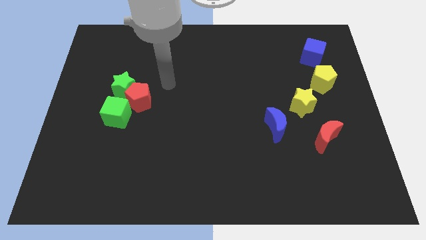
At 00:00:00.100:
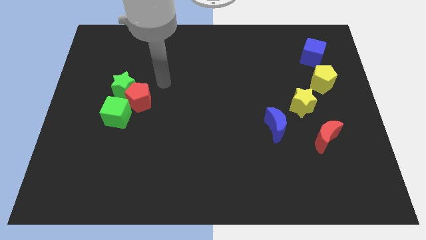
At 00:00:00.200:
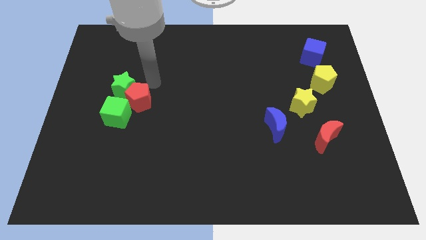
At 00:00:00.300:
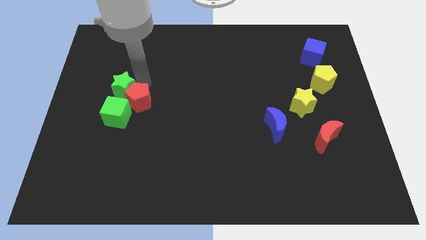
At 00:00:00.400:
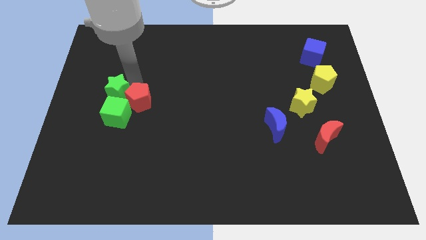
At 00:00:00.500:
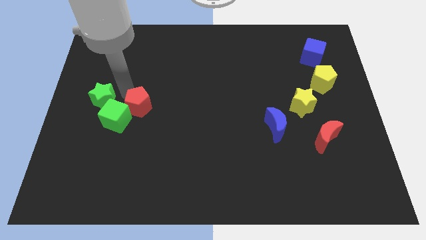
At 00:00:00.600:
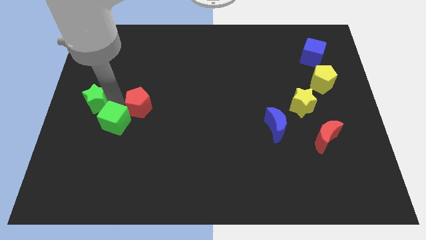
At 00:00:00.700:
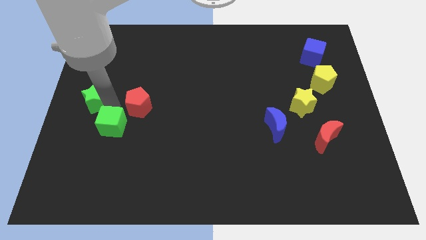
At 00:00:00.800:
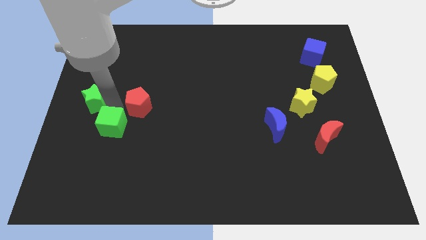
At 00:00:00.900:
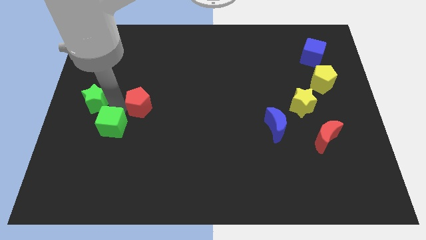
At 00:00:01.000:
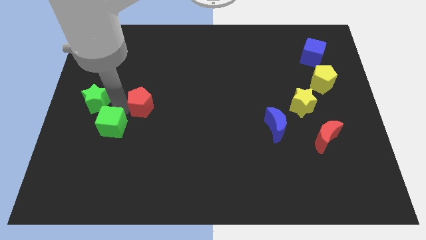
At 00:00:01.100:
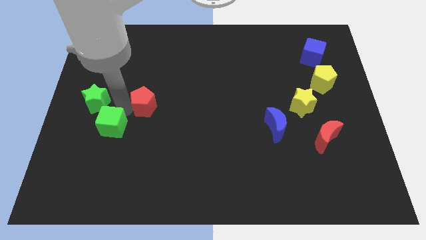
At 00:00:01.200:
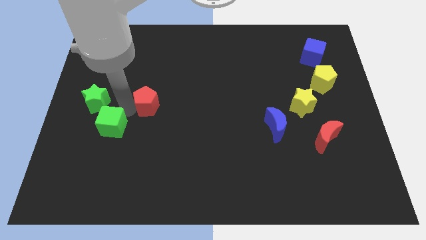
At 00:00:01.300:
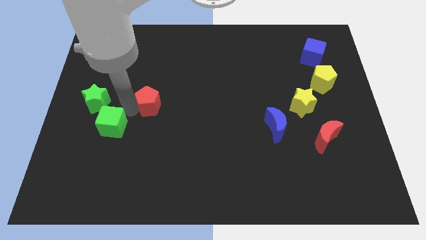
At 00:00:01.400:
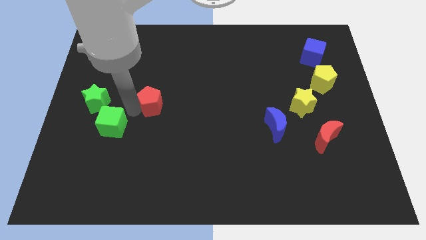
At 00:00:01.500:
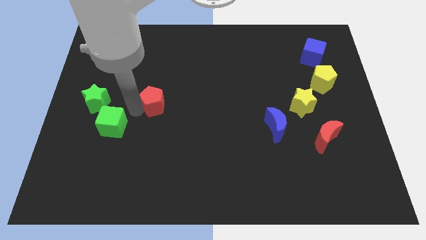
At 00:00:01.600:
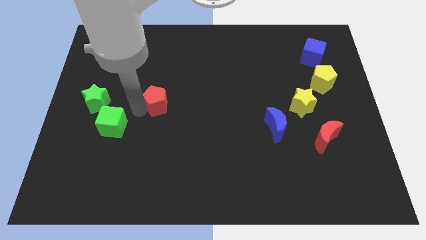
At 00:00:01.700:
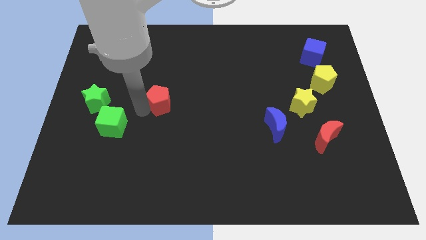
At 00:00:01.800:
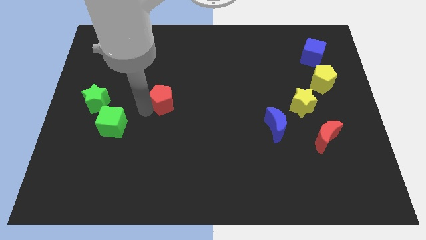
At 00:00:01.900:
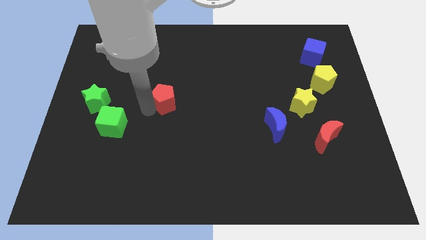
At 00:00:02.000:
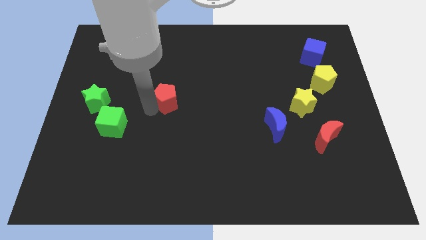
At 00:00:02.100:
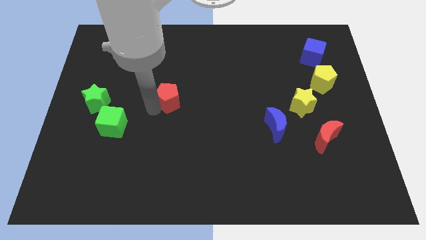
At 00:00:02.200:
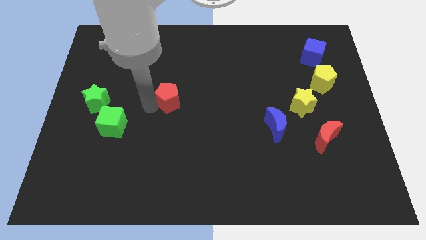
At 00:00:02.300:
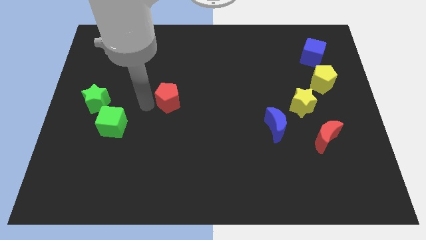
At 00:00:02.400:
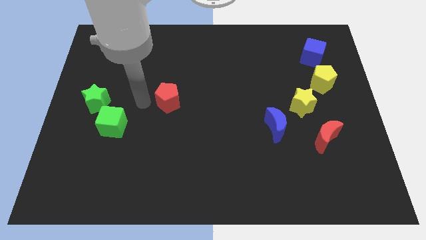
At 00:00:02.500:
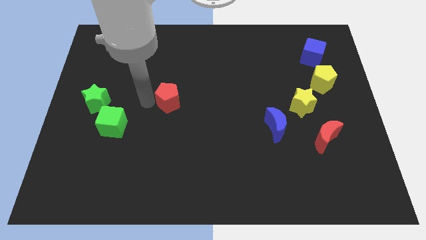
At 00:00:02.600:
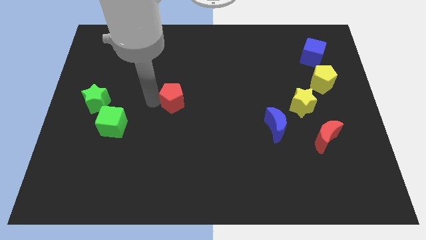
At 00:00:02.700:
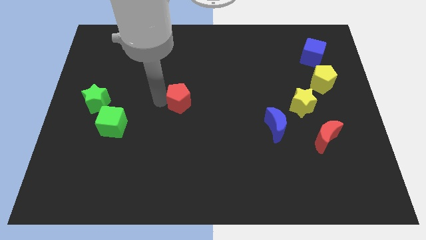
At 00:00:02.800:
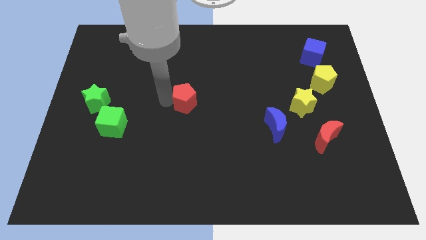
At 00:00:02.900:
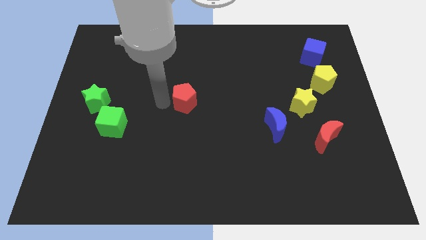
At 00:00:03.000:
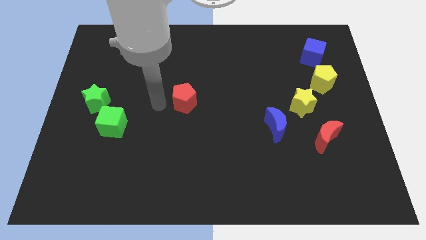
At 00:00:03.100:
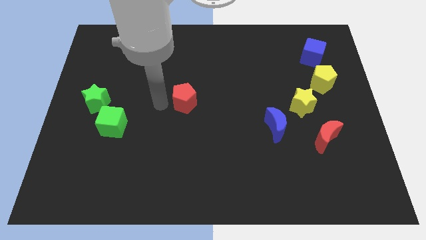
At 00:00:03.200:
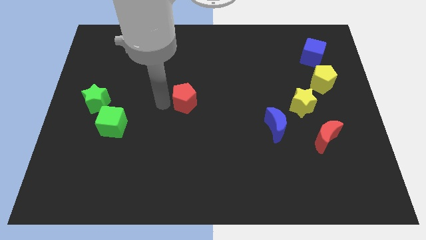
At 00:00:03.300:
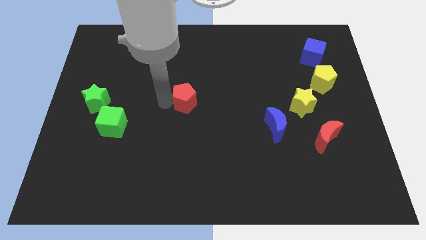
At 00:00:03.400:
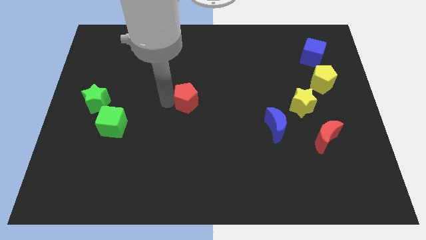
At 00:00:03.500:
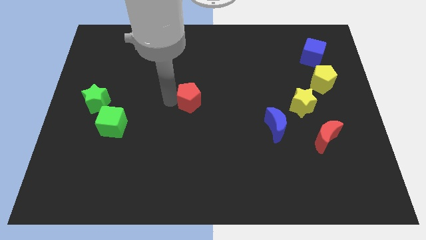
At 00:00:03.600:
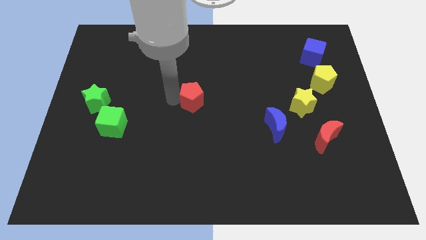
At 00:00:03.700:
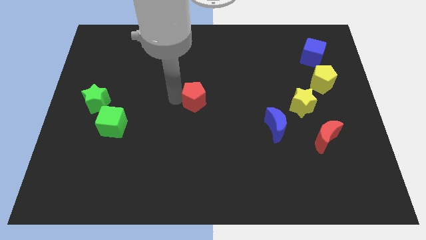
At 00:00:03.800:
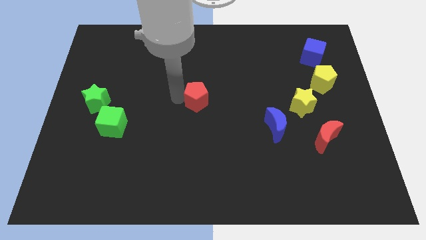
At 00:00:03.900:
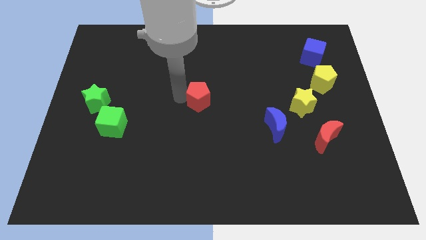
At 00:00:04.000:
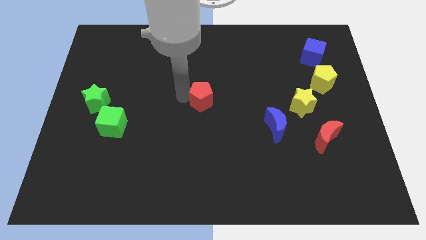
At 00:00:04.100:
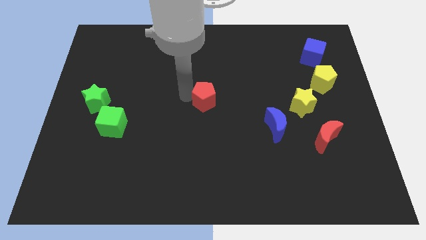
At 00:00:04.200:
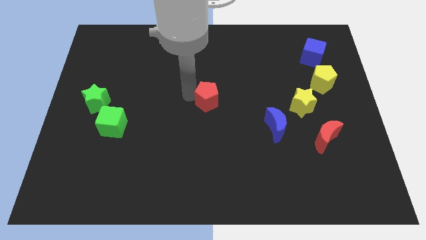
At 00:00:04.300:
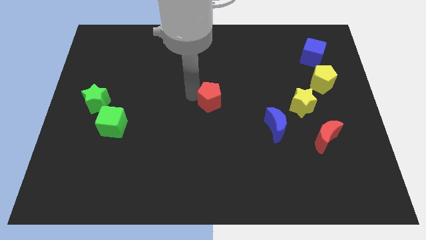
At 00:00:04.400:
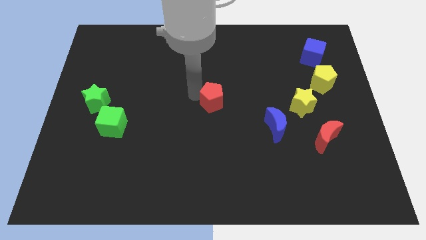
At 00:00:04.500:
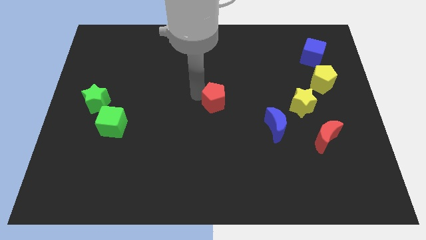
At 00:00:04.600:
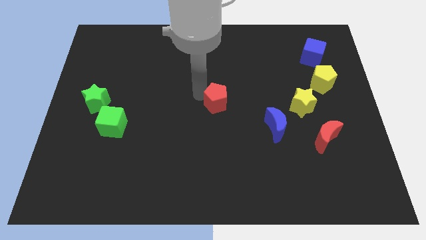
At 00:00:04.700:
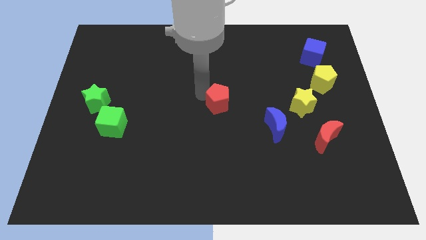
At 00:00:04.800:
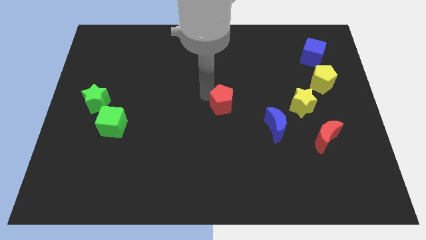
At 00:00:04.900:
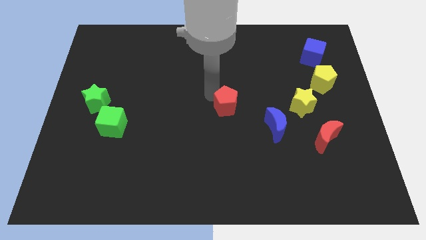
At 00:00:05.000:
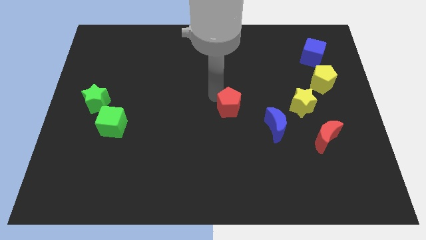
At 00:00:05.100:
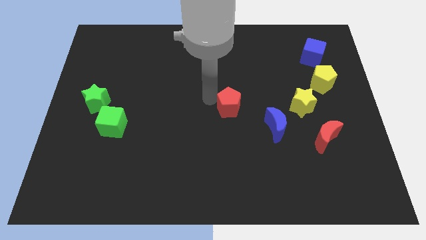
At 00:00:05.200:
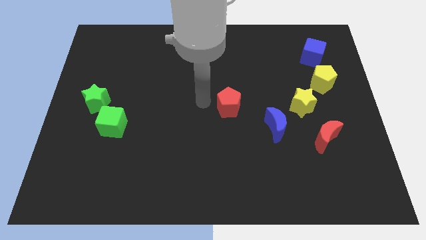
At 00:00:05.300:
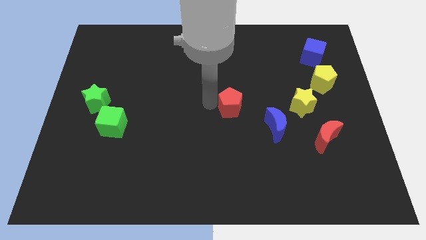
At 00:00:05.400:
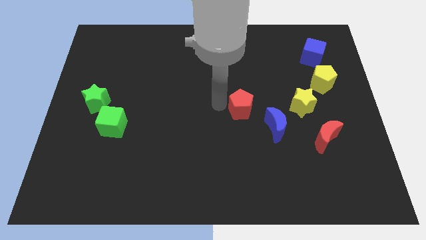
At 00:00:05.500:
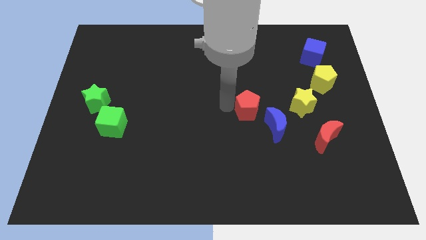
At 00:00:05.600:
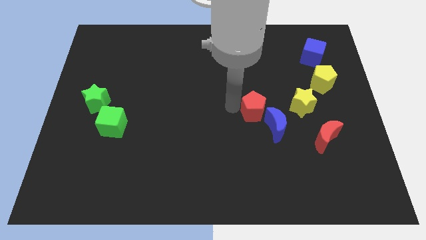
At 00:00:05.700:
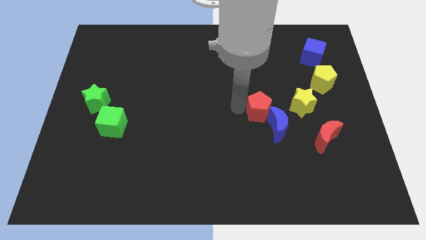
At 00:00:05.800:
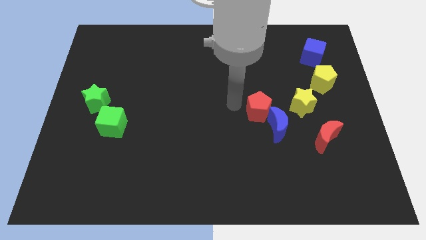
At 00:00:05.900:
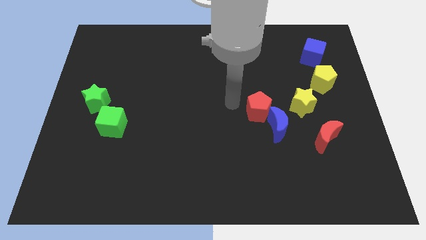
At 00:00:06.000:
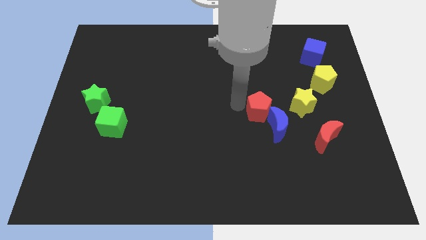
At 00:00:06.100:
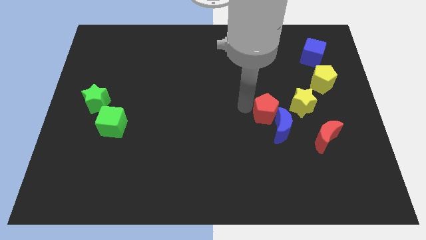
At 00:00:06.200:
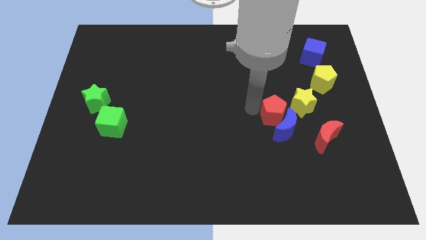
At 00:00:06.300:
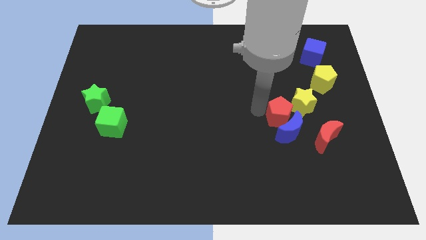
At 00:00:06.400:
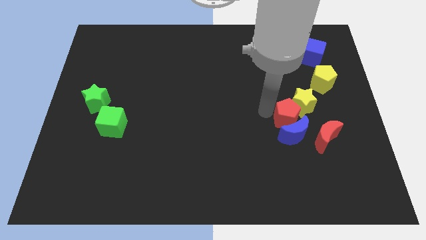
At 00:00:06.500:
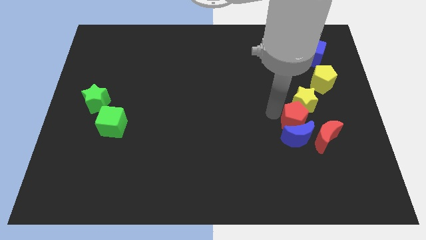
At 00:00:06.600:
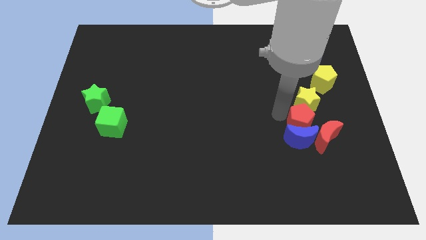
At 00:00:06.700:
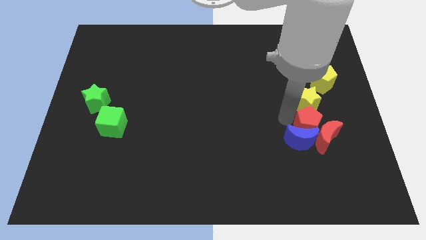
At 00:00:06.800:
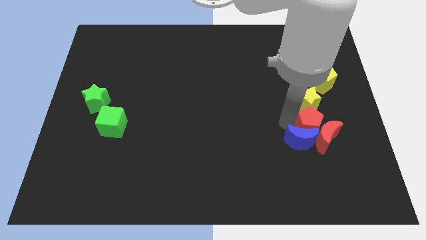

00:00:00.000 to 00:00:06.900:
put the red pentagon to the right of the blue moon

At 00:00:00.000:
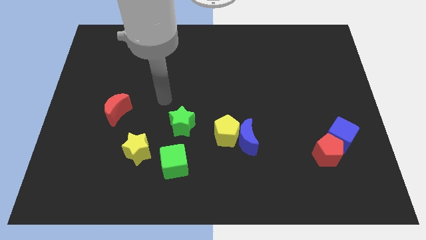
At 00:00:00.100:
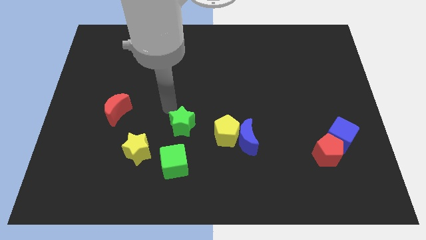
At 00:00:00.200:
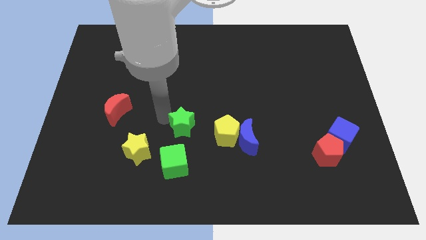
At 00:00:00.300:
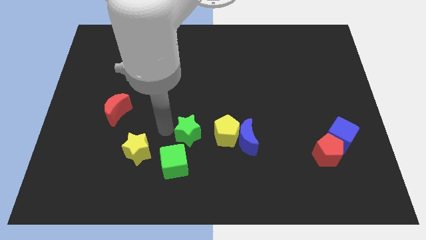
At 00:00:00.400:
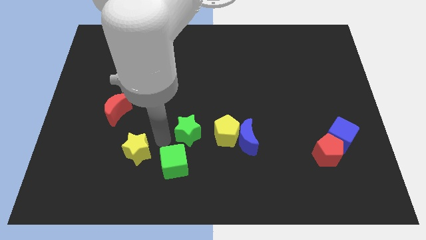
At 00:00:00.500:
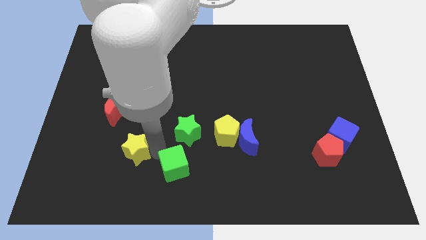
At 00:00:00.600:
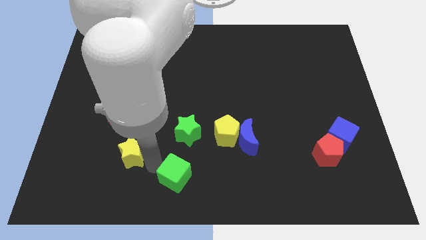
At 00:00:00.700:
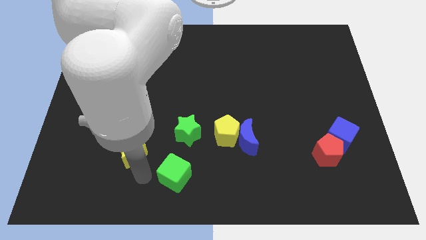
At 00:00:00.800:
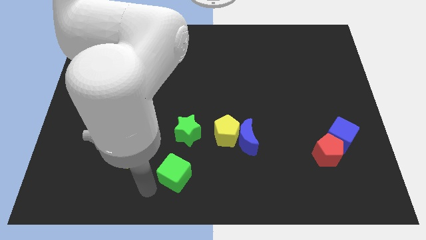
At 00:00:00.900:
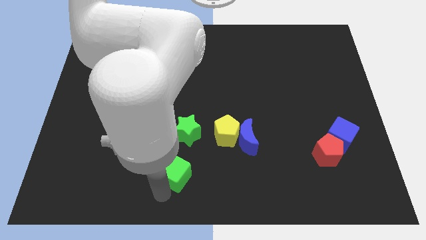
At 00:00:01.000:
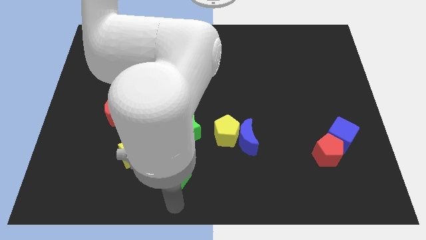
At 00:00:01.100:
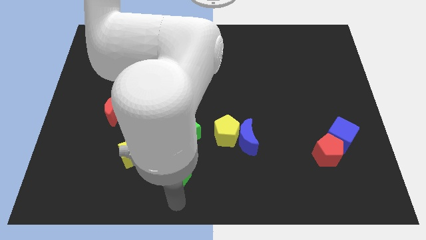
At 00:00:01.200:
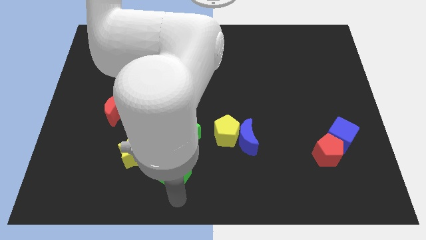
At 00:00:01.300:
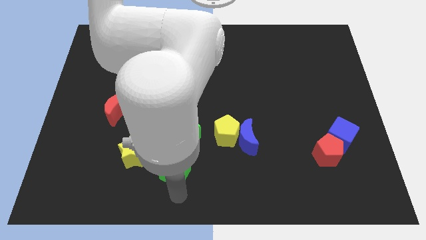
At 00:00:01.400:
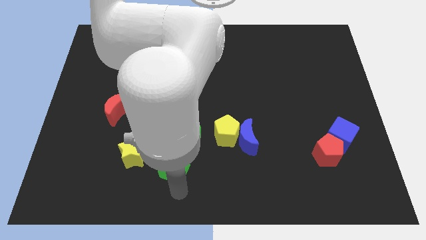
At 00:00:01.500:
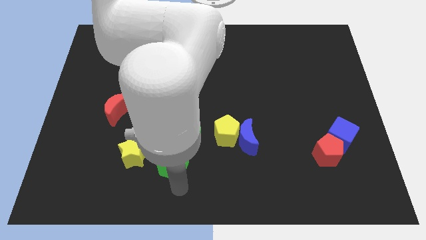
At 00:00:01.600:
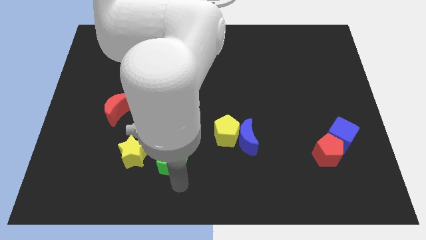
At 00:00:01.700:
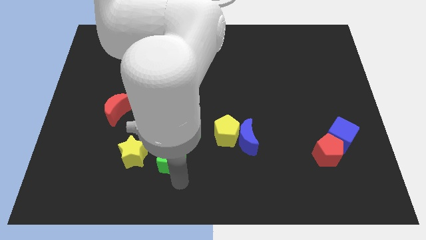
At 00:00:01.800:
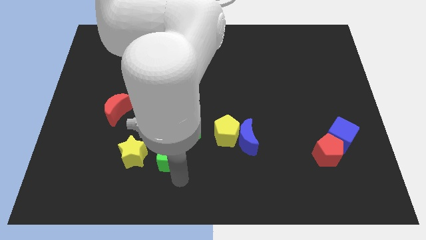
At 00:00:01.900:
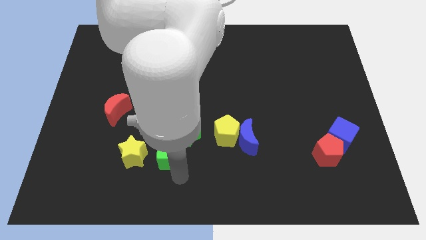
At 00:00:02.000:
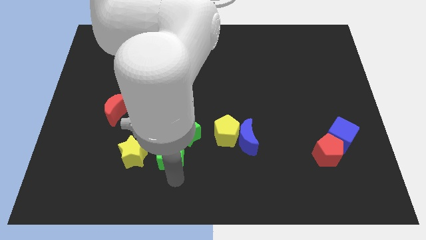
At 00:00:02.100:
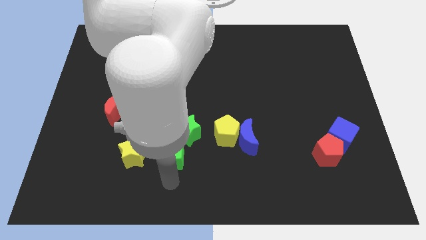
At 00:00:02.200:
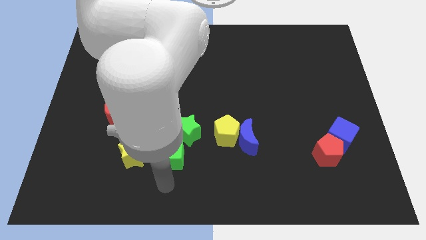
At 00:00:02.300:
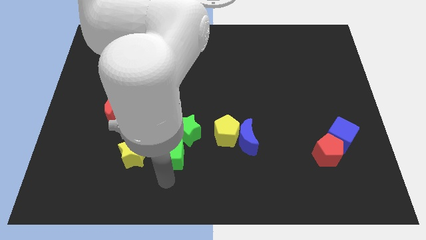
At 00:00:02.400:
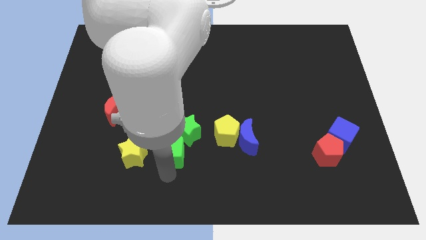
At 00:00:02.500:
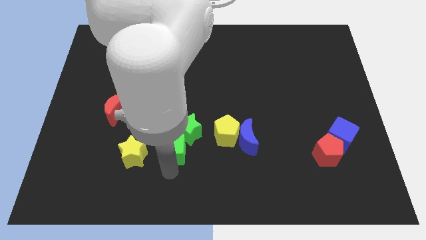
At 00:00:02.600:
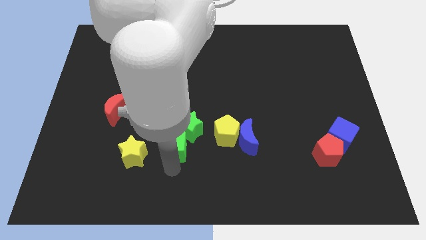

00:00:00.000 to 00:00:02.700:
move the green cube to the top right of the yellow star
